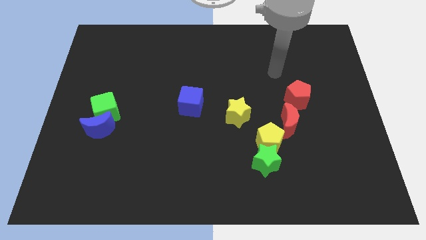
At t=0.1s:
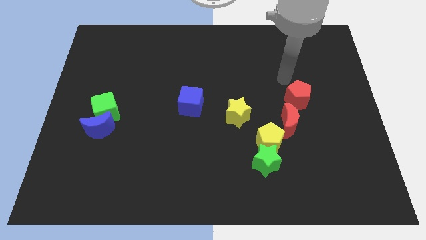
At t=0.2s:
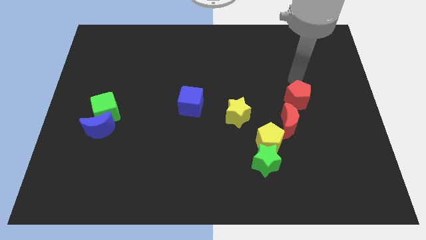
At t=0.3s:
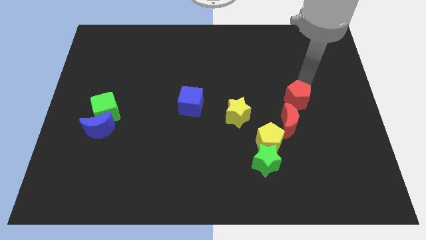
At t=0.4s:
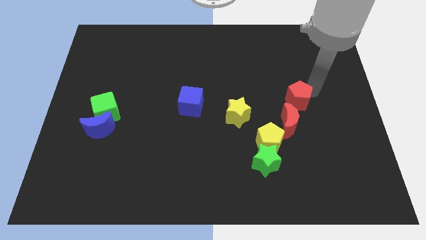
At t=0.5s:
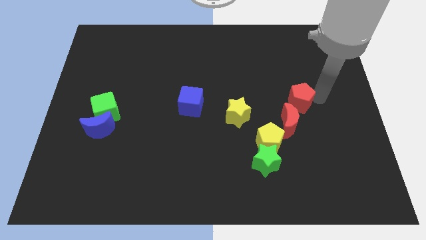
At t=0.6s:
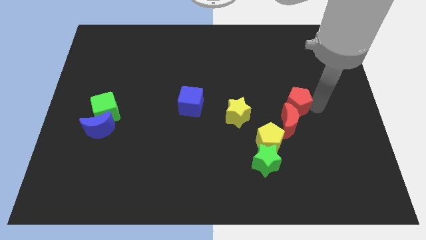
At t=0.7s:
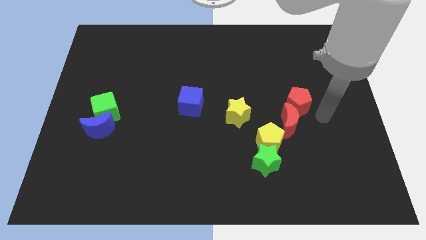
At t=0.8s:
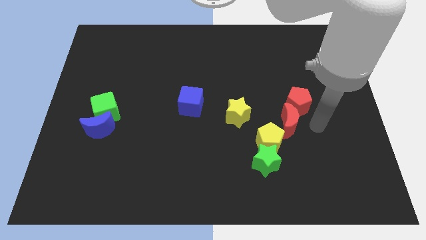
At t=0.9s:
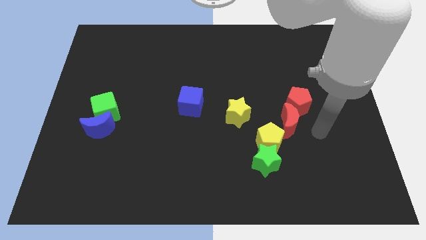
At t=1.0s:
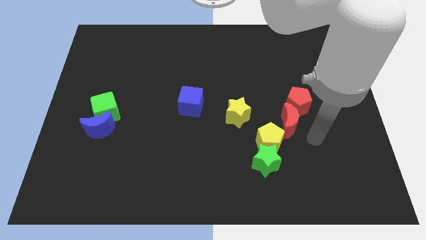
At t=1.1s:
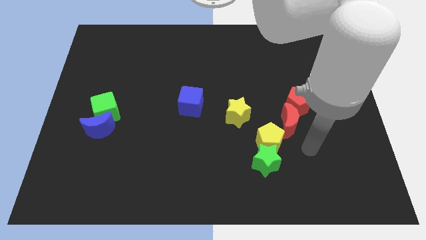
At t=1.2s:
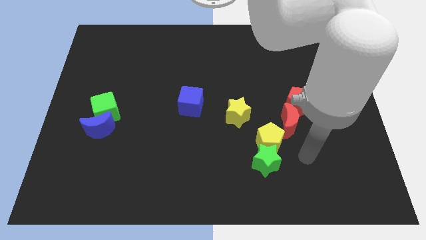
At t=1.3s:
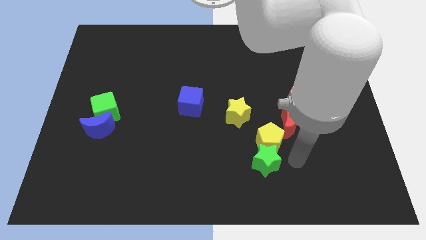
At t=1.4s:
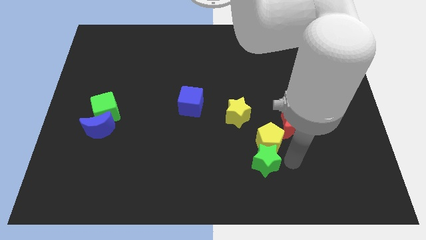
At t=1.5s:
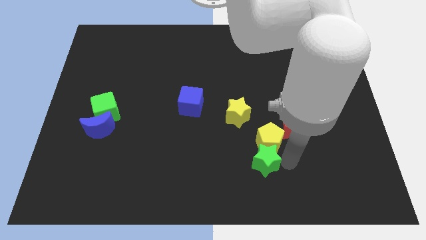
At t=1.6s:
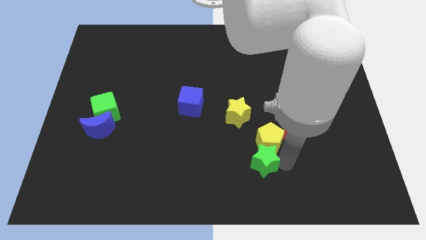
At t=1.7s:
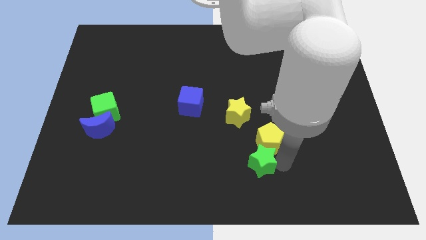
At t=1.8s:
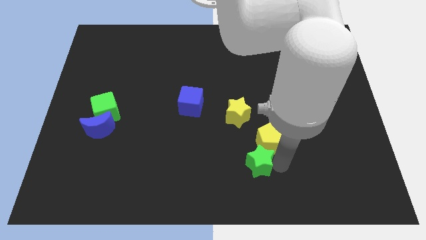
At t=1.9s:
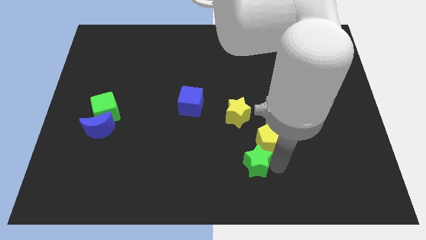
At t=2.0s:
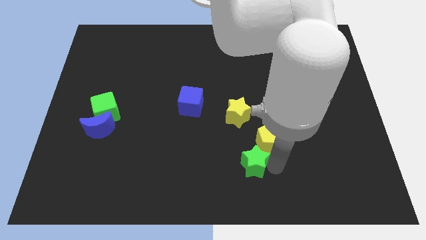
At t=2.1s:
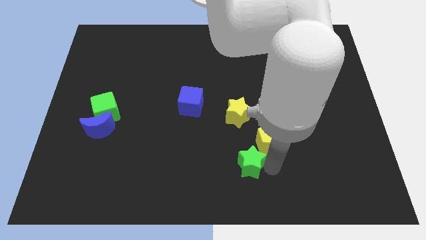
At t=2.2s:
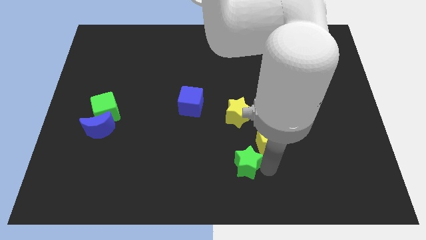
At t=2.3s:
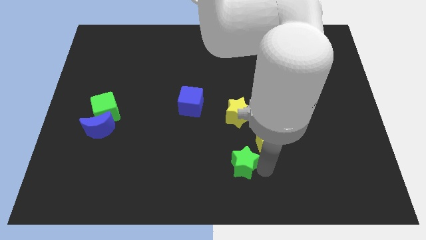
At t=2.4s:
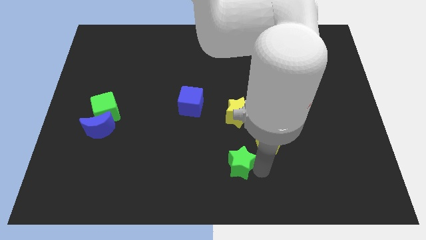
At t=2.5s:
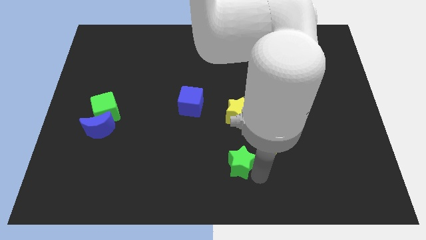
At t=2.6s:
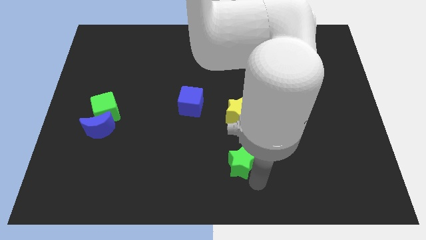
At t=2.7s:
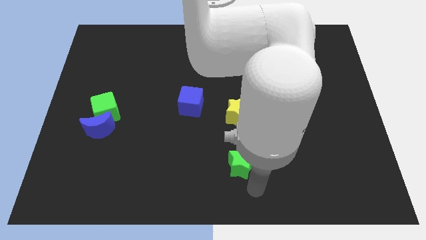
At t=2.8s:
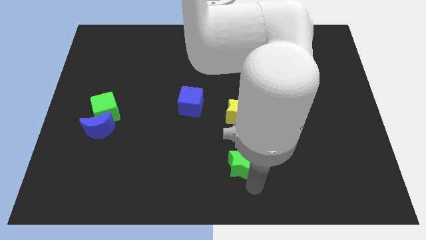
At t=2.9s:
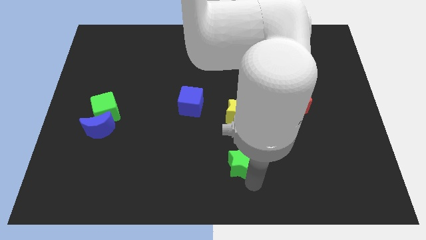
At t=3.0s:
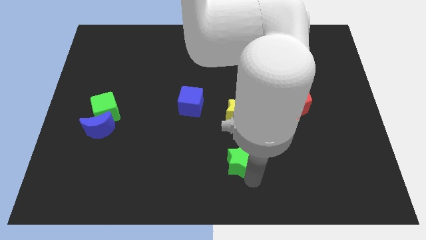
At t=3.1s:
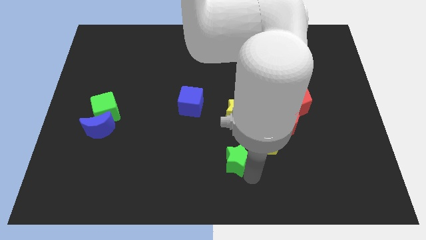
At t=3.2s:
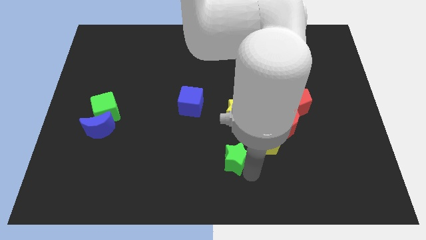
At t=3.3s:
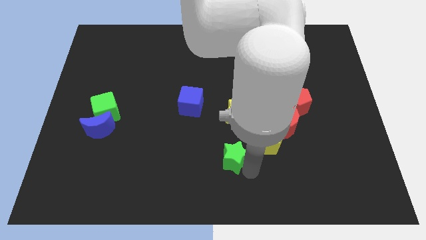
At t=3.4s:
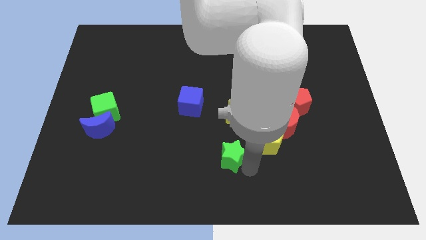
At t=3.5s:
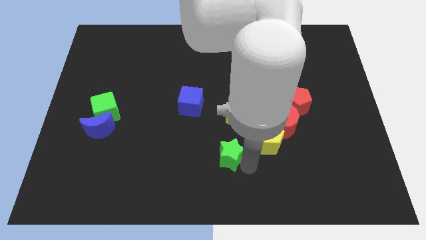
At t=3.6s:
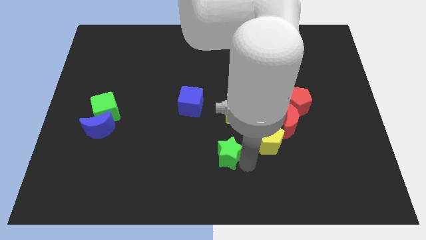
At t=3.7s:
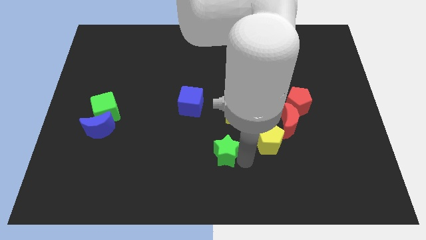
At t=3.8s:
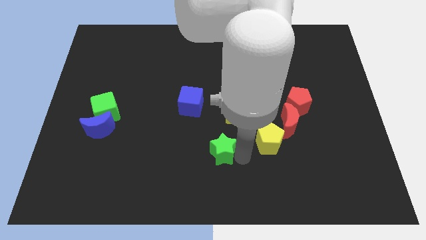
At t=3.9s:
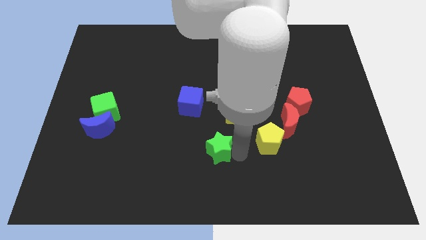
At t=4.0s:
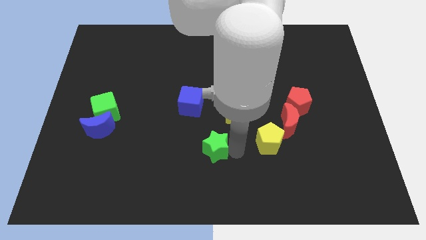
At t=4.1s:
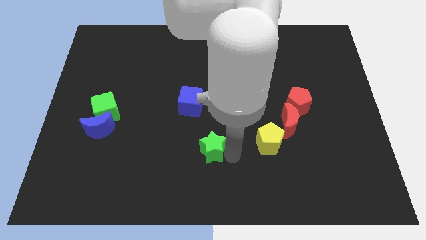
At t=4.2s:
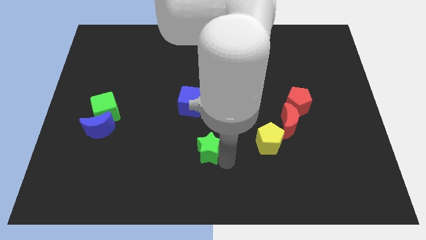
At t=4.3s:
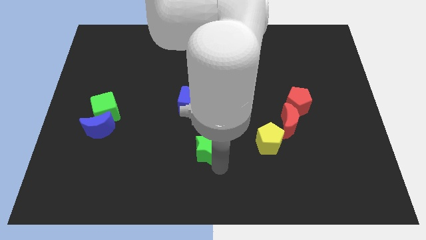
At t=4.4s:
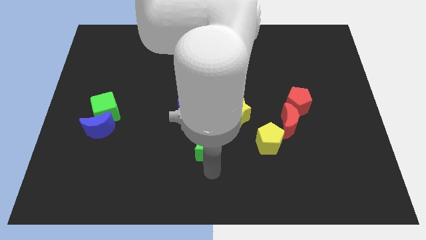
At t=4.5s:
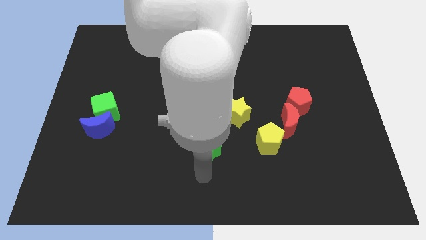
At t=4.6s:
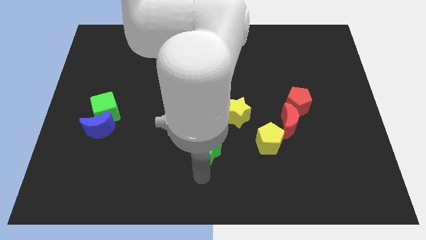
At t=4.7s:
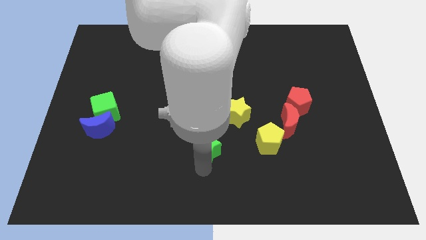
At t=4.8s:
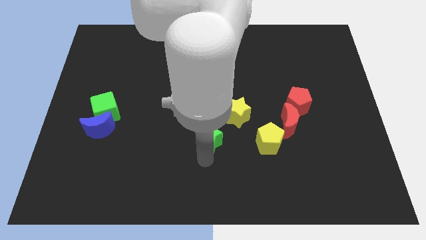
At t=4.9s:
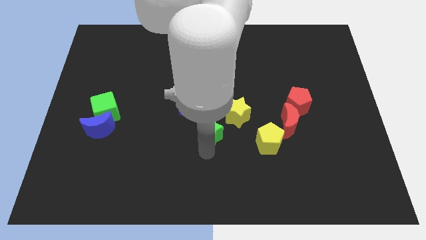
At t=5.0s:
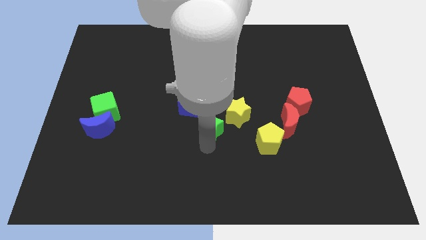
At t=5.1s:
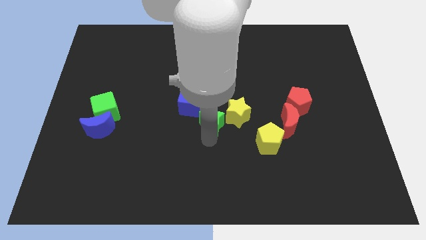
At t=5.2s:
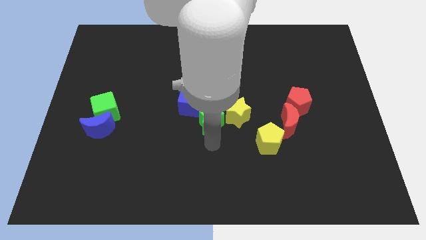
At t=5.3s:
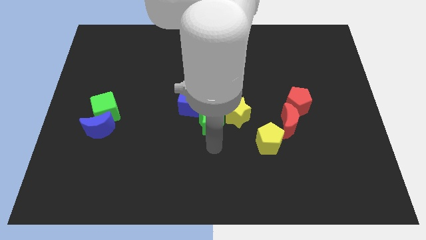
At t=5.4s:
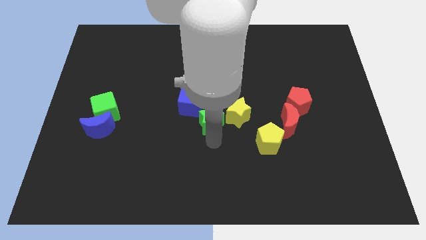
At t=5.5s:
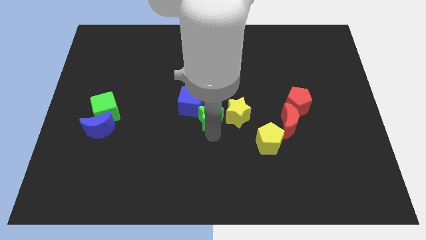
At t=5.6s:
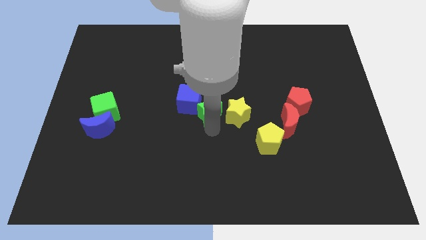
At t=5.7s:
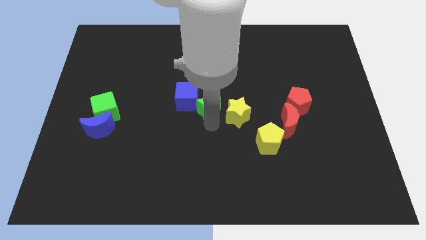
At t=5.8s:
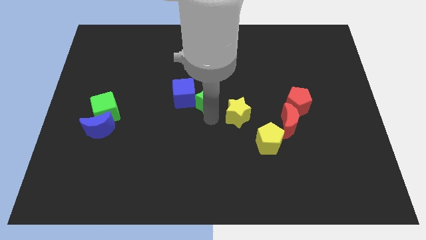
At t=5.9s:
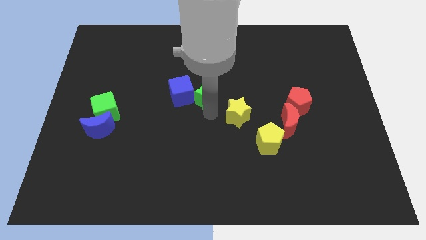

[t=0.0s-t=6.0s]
push the green star up and then to the left

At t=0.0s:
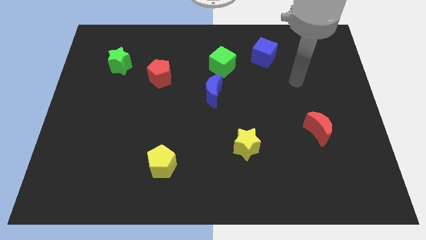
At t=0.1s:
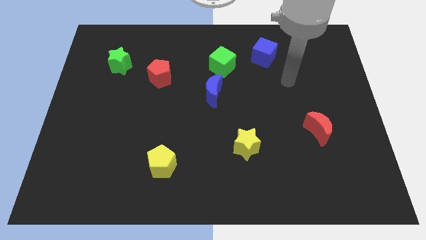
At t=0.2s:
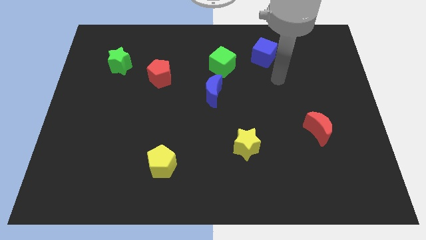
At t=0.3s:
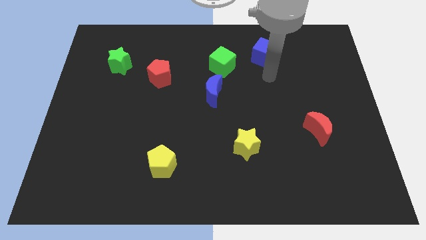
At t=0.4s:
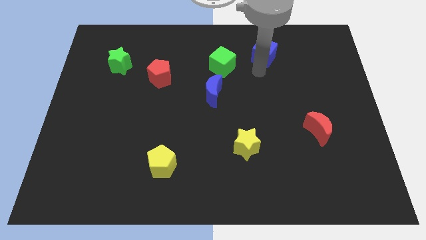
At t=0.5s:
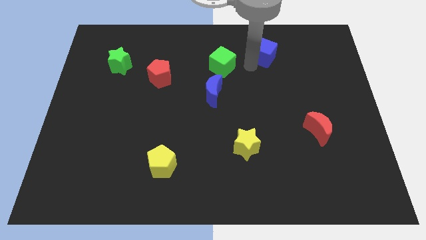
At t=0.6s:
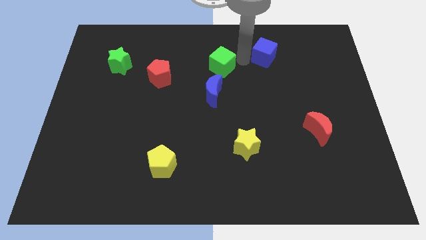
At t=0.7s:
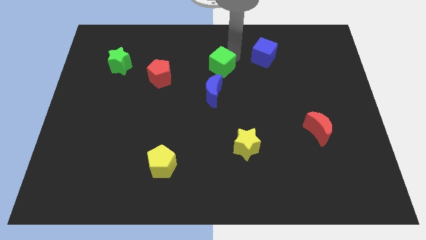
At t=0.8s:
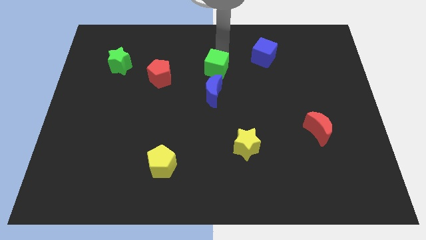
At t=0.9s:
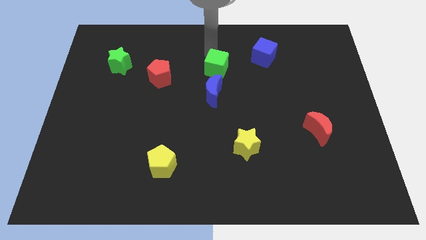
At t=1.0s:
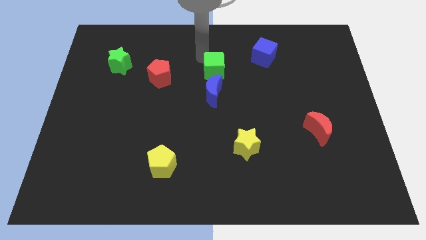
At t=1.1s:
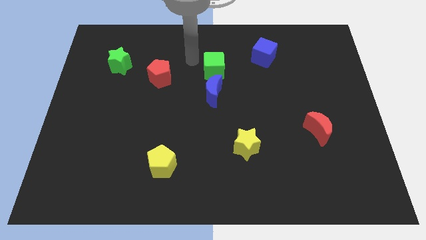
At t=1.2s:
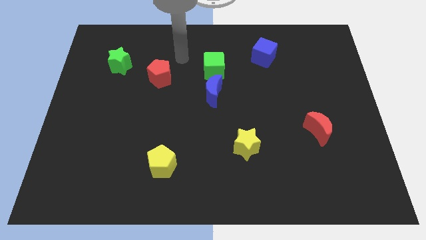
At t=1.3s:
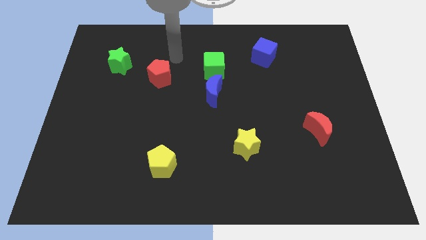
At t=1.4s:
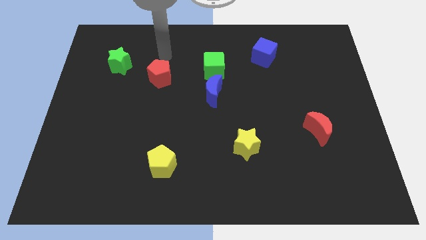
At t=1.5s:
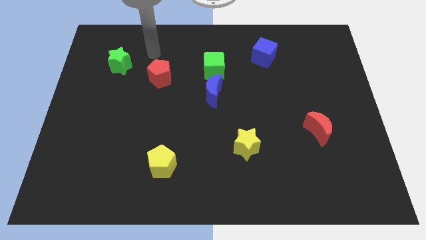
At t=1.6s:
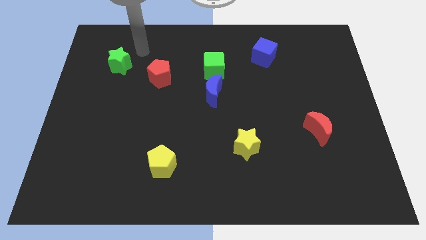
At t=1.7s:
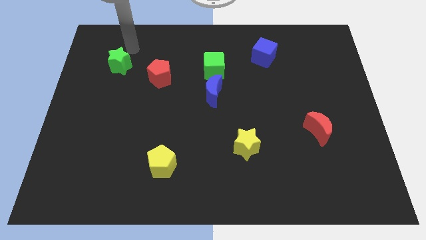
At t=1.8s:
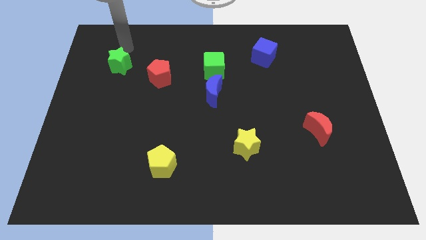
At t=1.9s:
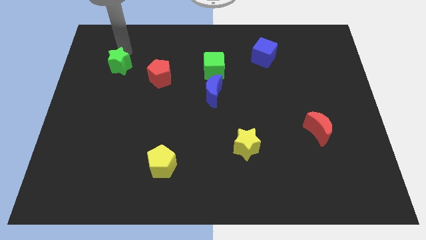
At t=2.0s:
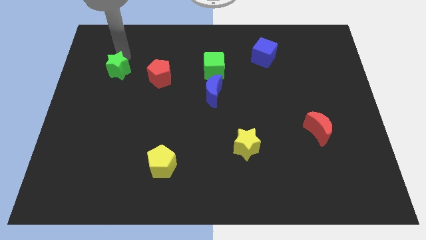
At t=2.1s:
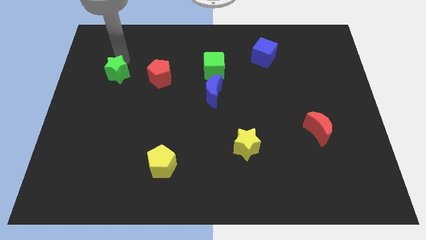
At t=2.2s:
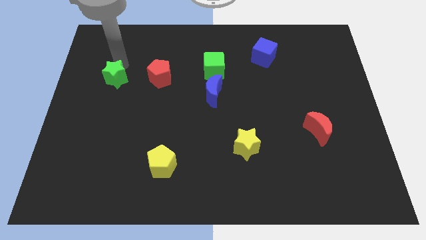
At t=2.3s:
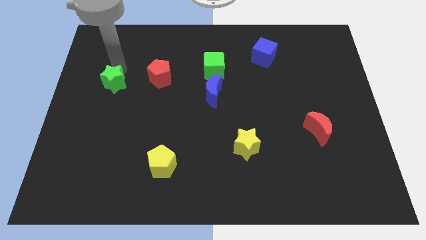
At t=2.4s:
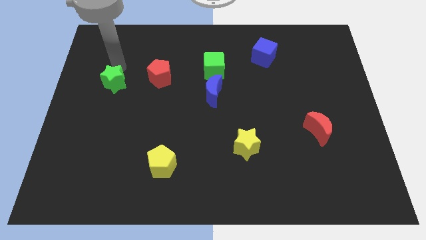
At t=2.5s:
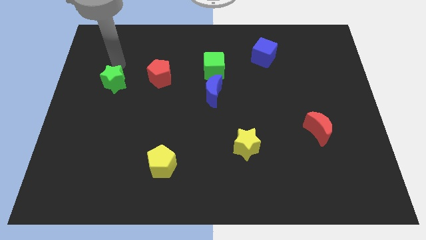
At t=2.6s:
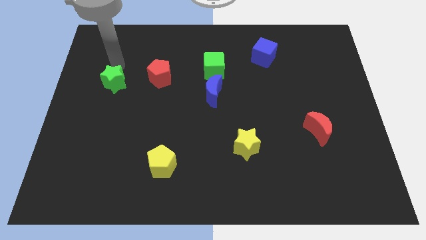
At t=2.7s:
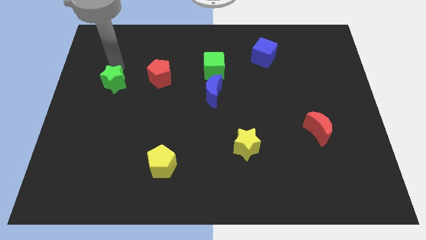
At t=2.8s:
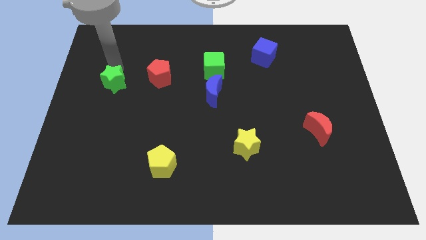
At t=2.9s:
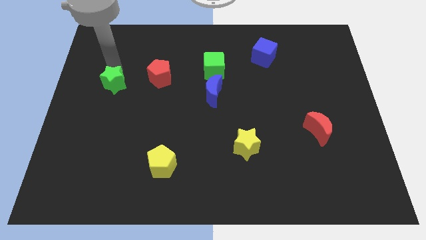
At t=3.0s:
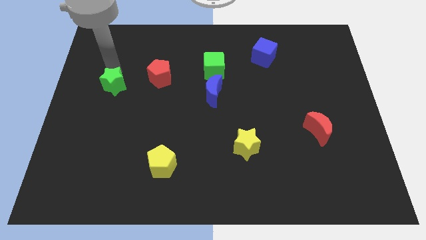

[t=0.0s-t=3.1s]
slightly slide the green star downwards
